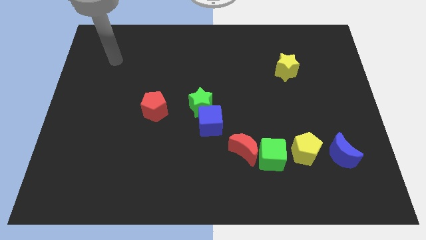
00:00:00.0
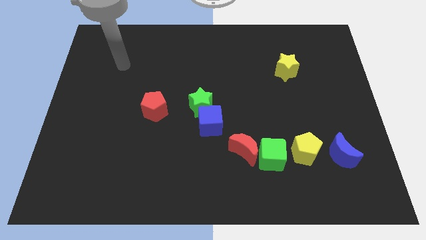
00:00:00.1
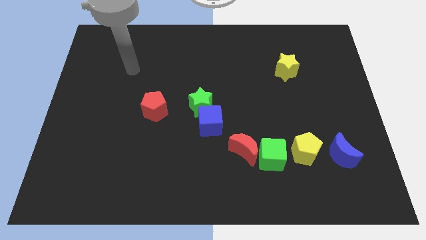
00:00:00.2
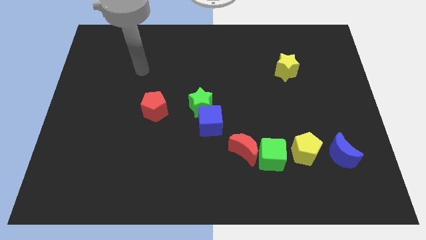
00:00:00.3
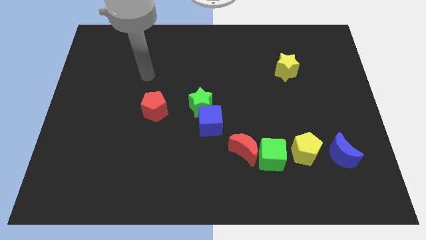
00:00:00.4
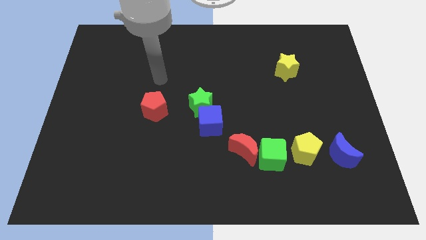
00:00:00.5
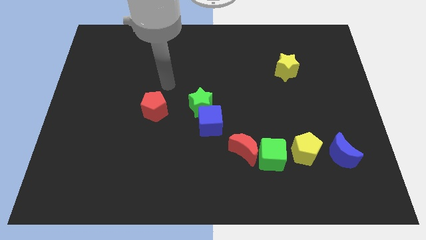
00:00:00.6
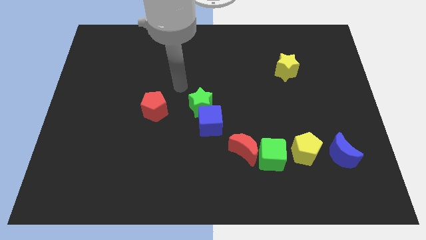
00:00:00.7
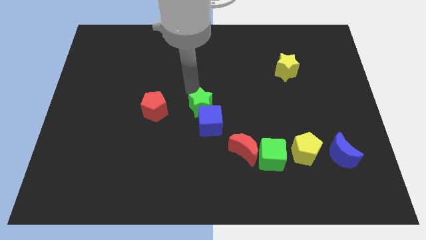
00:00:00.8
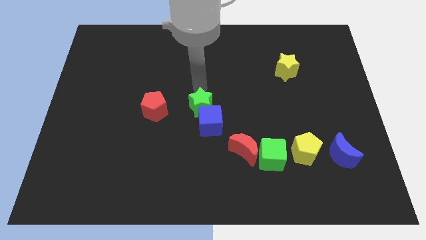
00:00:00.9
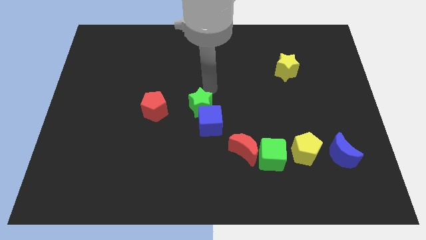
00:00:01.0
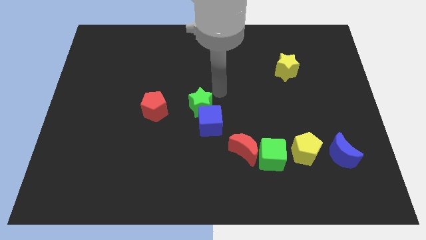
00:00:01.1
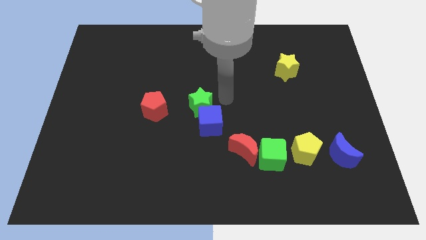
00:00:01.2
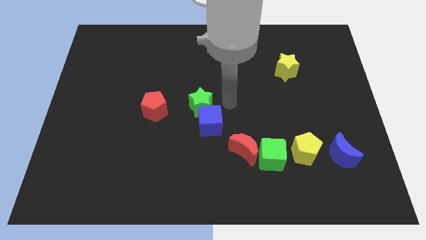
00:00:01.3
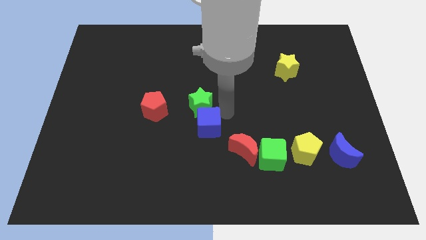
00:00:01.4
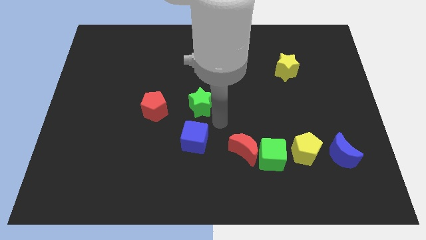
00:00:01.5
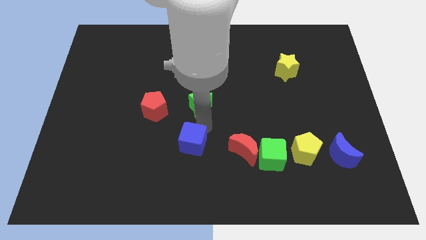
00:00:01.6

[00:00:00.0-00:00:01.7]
separate the green star from the blue cube

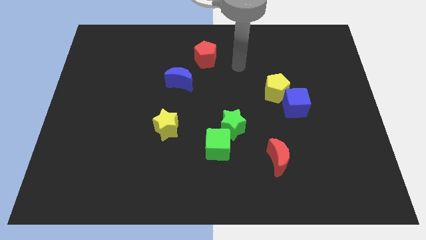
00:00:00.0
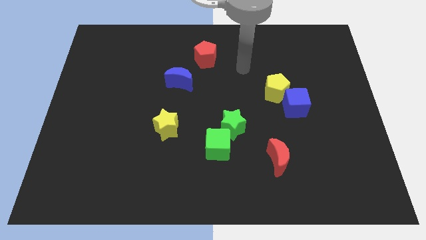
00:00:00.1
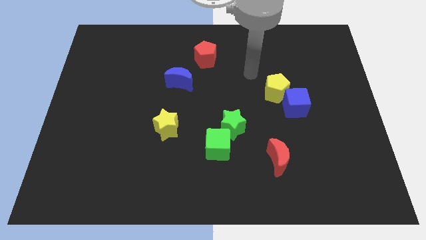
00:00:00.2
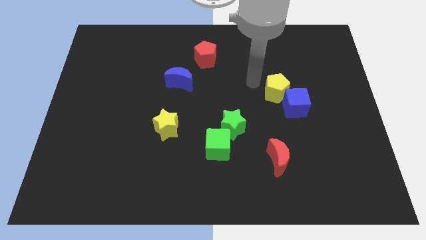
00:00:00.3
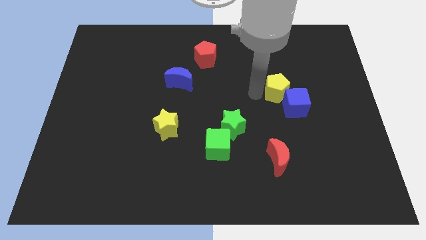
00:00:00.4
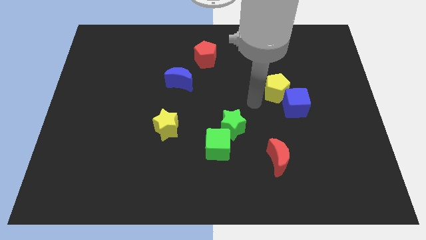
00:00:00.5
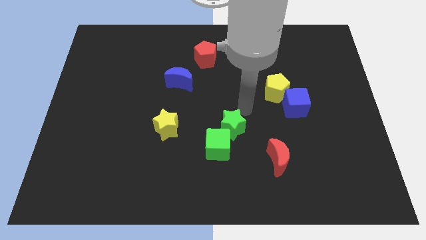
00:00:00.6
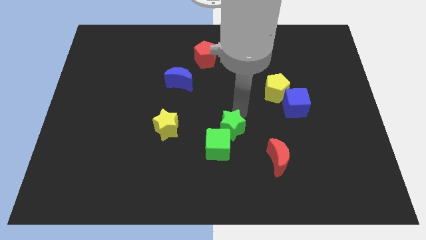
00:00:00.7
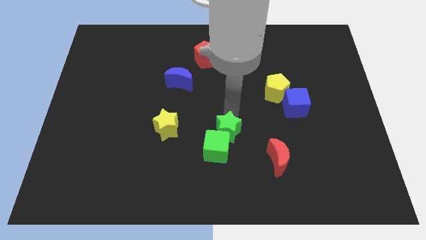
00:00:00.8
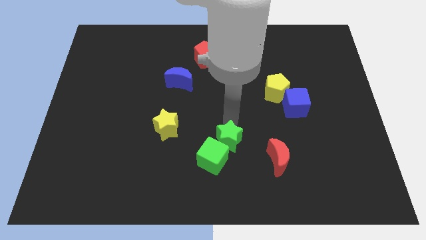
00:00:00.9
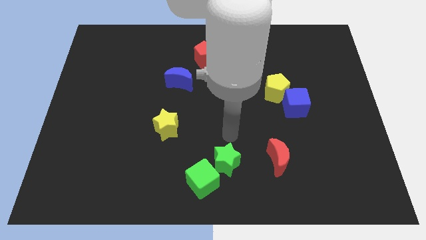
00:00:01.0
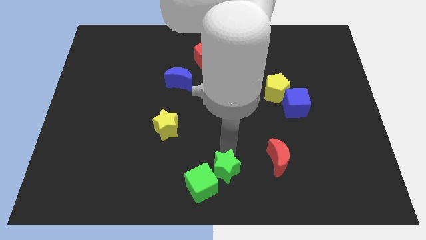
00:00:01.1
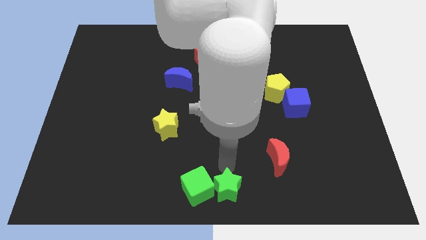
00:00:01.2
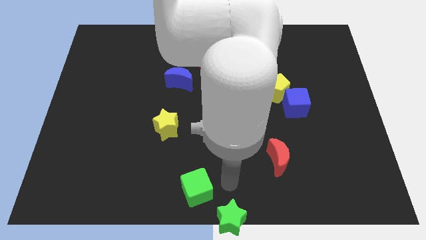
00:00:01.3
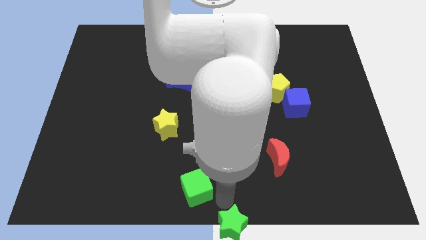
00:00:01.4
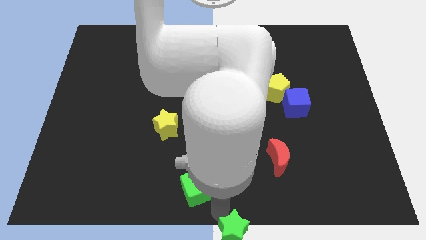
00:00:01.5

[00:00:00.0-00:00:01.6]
separate the green cube from the green star

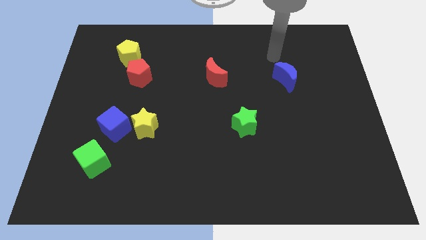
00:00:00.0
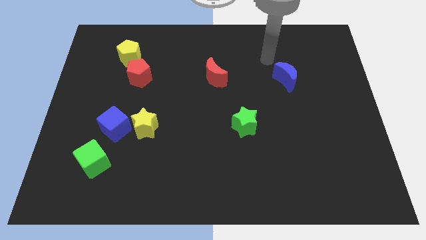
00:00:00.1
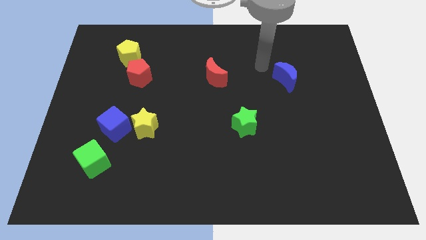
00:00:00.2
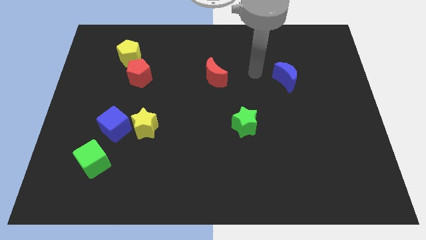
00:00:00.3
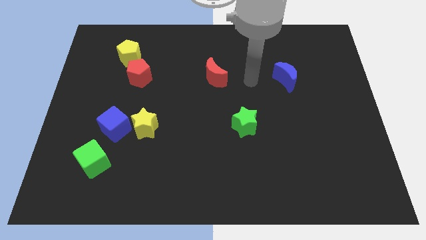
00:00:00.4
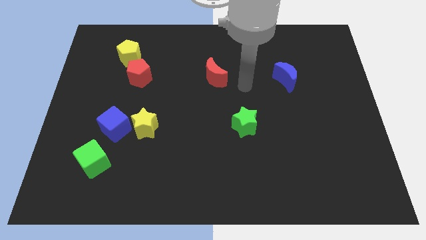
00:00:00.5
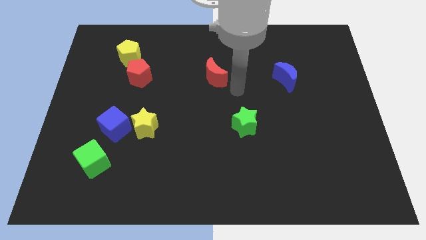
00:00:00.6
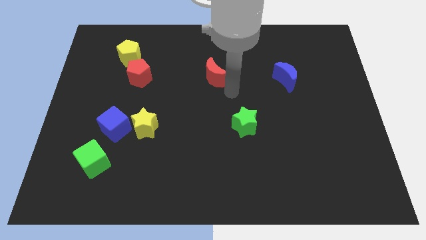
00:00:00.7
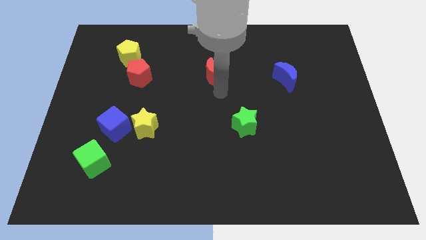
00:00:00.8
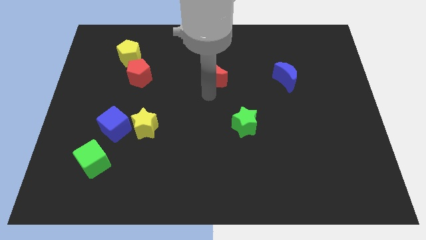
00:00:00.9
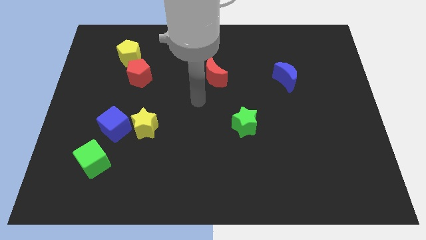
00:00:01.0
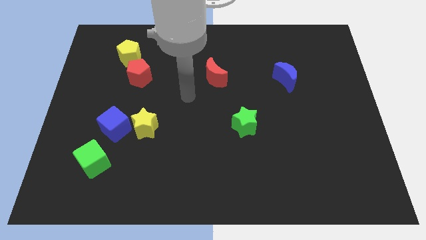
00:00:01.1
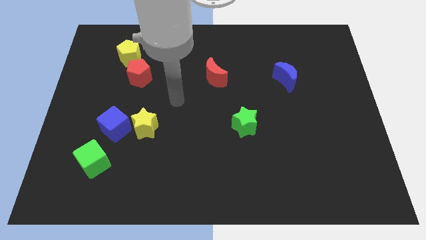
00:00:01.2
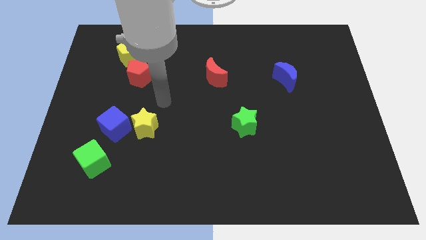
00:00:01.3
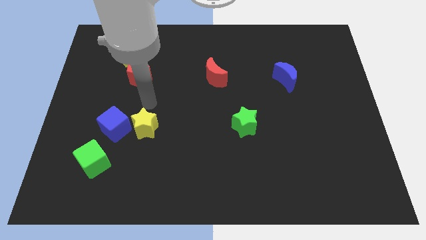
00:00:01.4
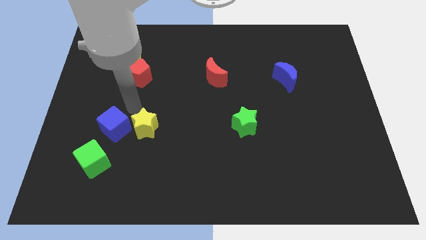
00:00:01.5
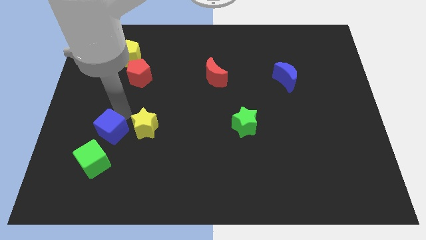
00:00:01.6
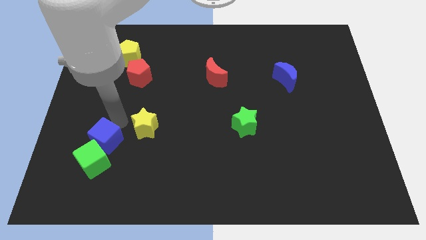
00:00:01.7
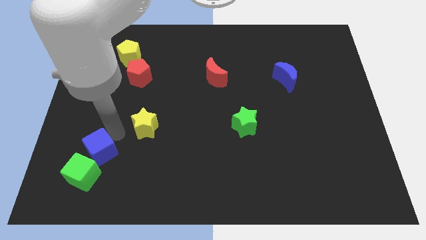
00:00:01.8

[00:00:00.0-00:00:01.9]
pull the yellow star apart from the blue cube

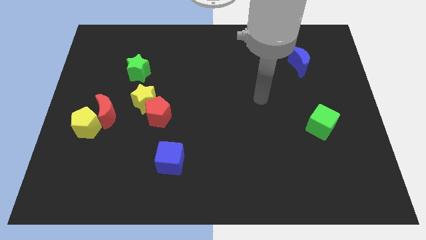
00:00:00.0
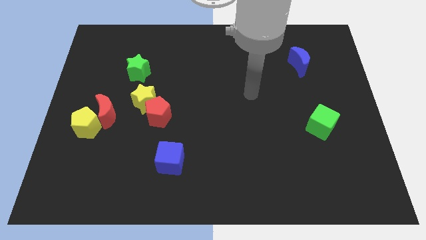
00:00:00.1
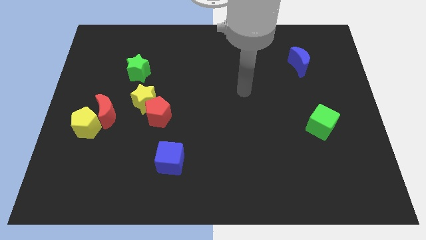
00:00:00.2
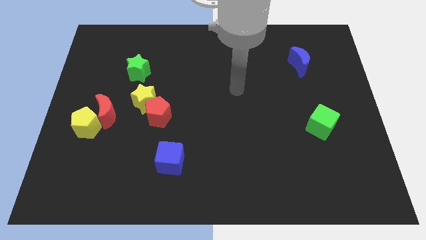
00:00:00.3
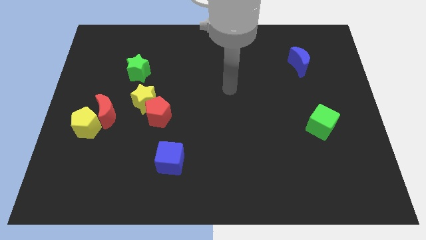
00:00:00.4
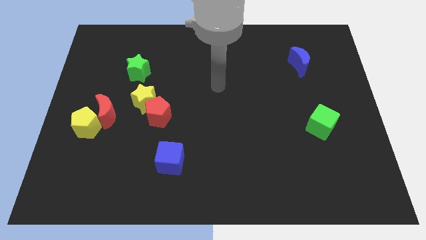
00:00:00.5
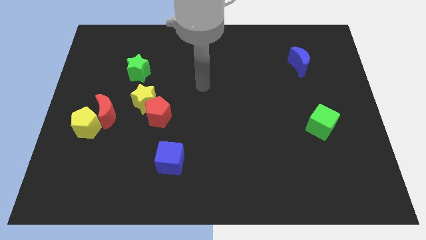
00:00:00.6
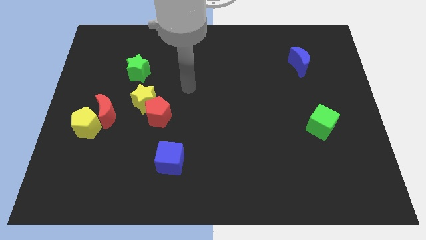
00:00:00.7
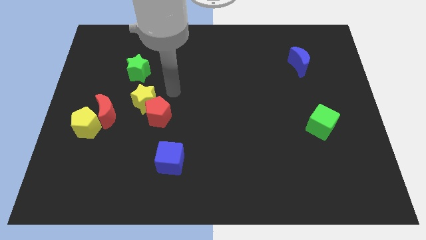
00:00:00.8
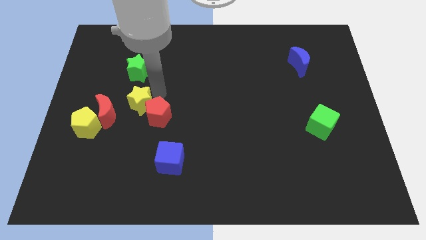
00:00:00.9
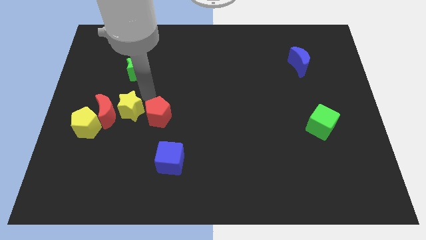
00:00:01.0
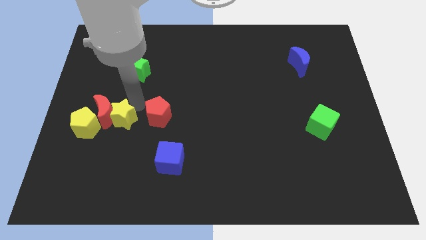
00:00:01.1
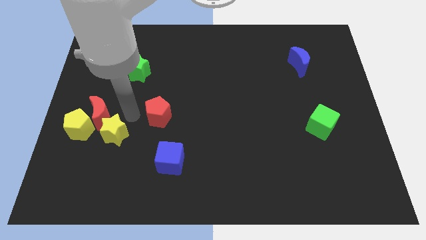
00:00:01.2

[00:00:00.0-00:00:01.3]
separate the red pentagon from the yellow star

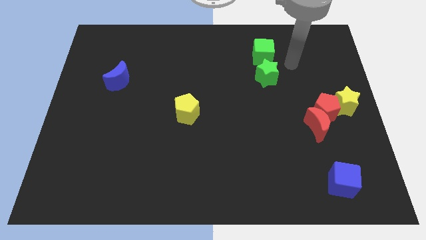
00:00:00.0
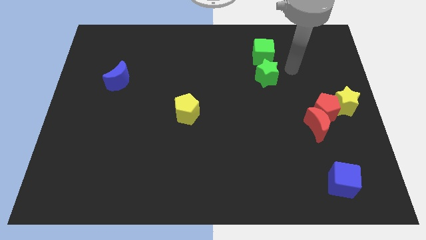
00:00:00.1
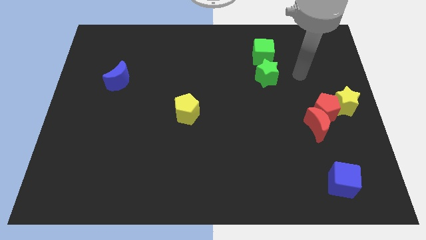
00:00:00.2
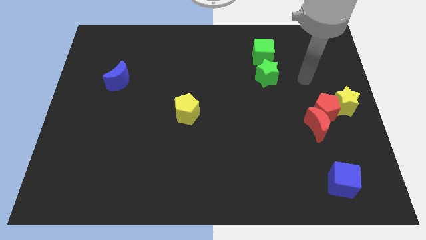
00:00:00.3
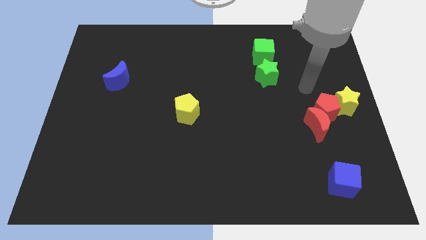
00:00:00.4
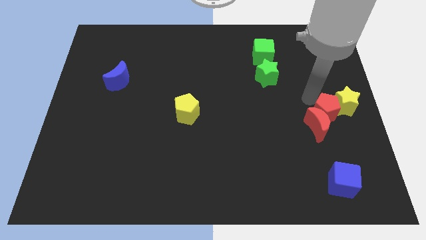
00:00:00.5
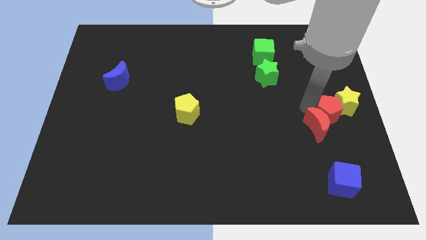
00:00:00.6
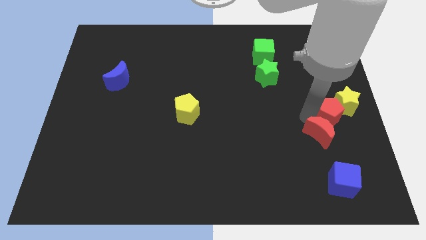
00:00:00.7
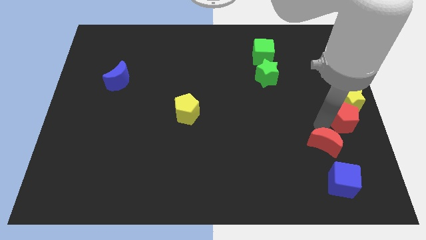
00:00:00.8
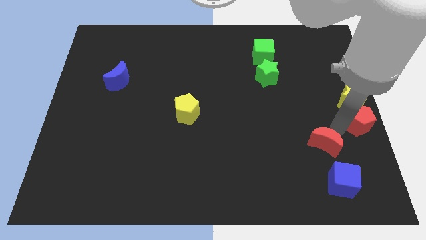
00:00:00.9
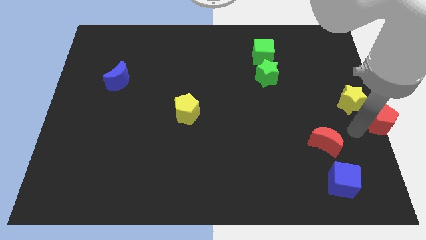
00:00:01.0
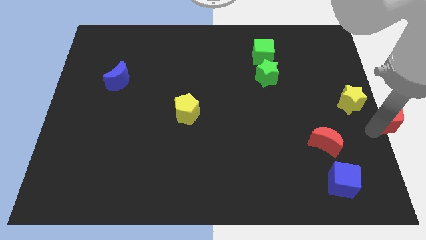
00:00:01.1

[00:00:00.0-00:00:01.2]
pull the red pentagon apart from the red moon and yellow star

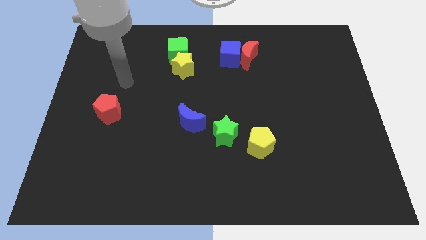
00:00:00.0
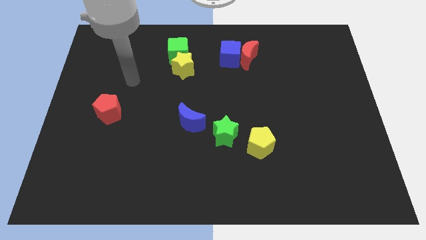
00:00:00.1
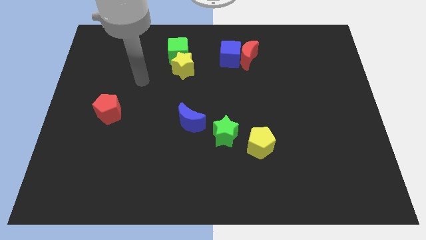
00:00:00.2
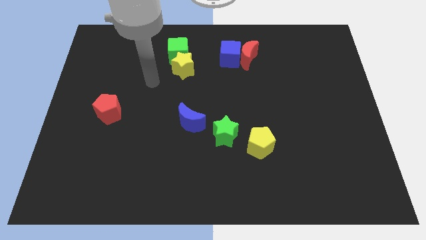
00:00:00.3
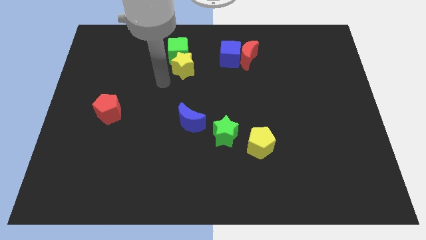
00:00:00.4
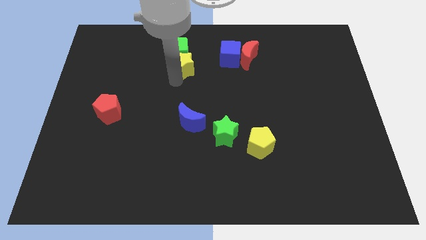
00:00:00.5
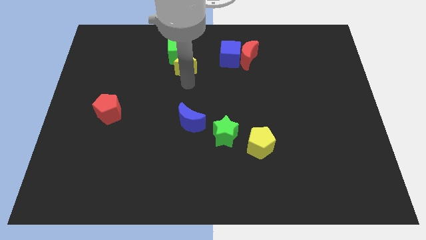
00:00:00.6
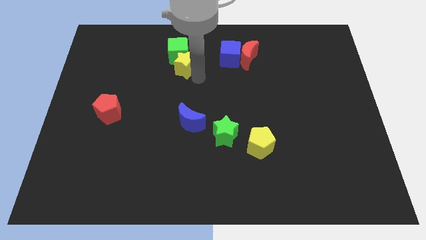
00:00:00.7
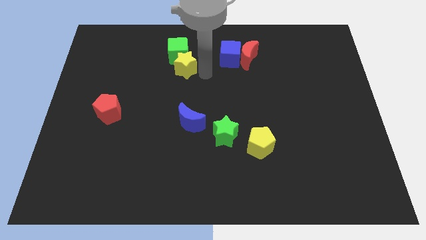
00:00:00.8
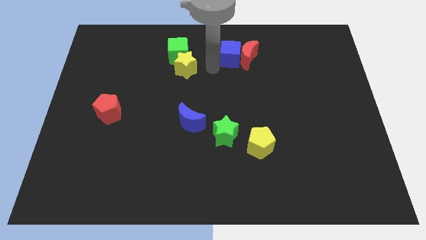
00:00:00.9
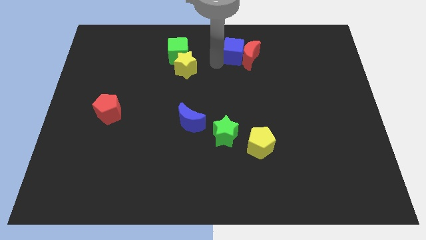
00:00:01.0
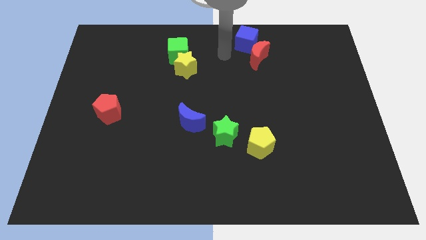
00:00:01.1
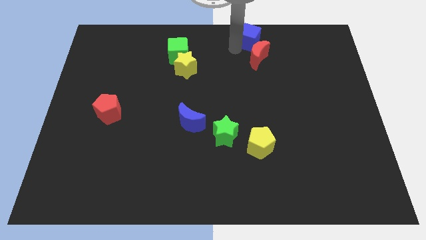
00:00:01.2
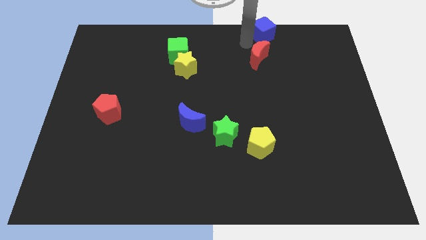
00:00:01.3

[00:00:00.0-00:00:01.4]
move the red moon away from the blue cube

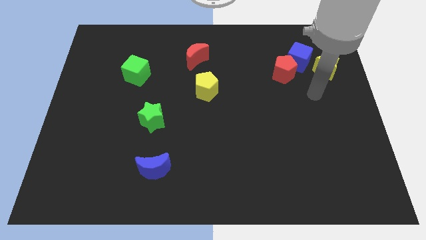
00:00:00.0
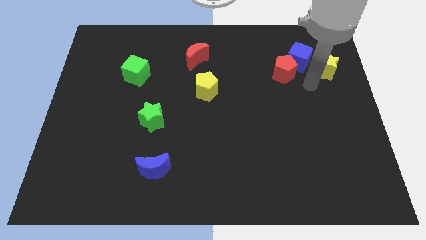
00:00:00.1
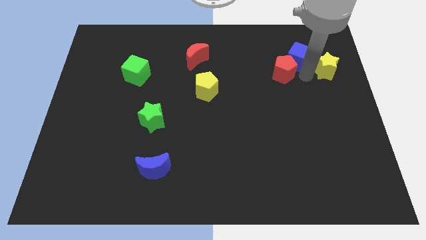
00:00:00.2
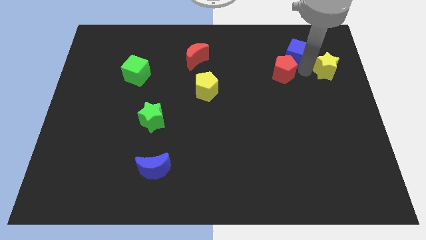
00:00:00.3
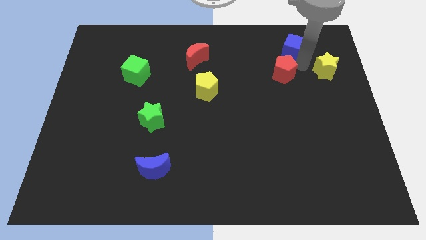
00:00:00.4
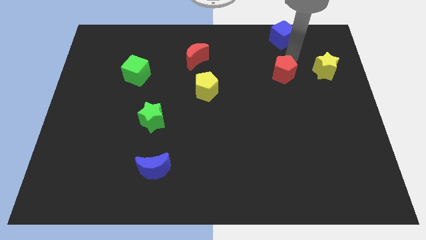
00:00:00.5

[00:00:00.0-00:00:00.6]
pull the red pentagon apart from the blue cube
